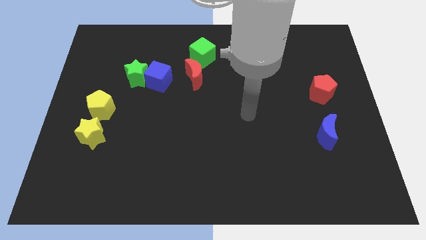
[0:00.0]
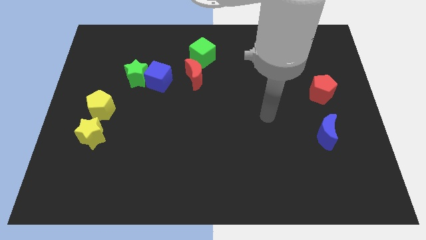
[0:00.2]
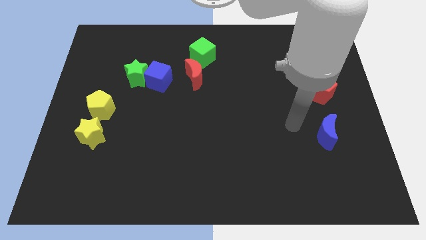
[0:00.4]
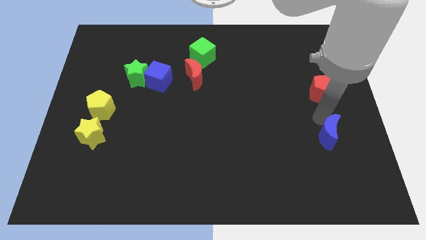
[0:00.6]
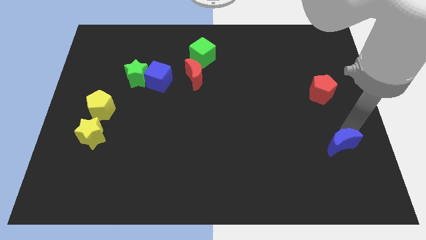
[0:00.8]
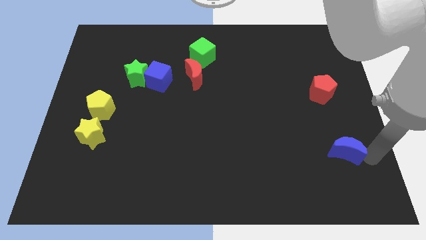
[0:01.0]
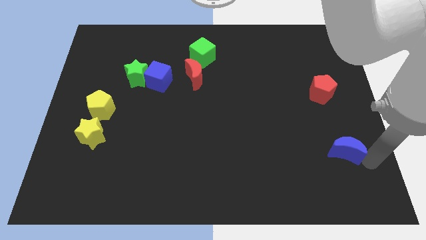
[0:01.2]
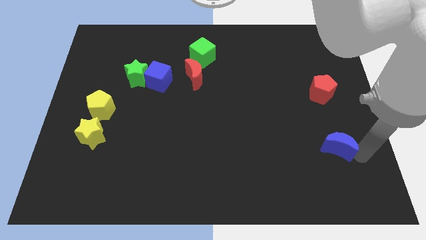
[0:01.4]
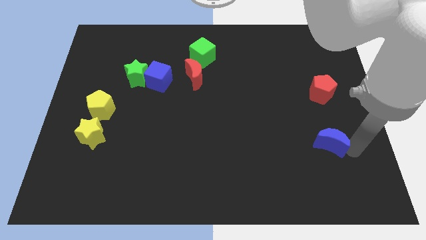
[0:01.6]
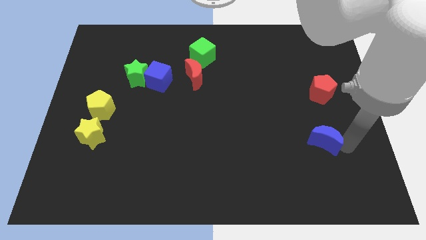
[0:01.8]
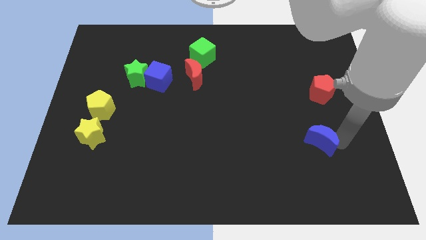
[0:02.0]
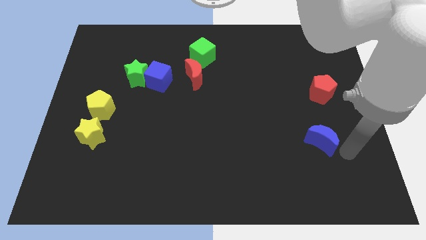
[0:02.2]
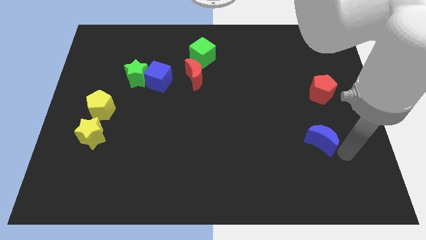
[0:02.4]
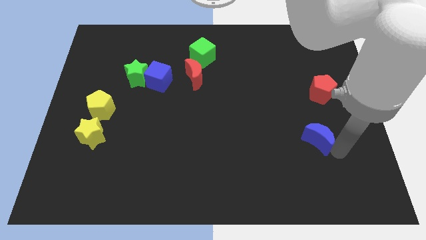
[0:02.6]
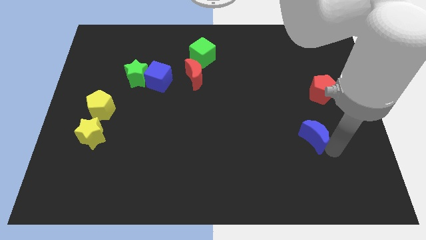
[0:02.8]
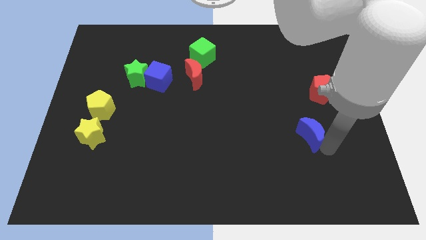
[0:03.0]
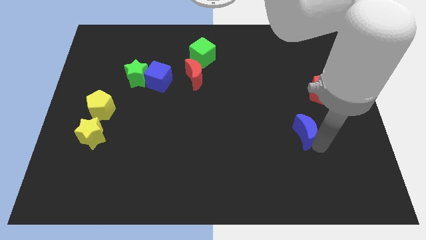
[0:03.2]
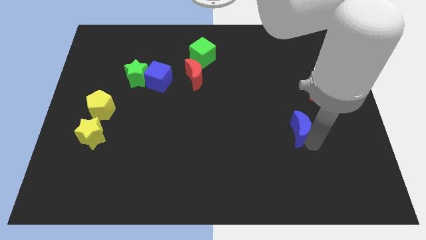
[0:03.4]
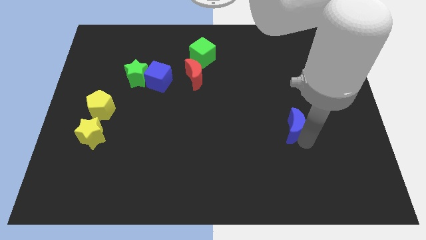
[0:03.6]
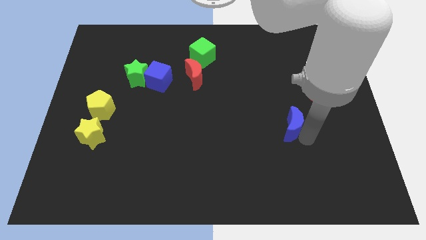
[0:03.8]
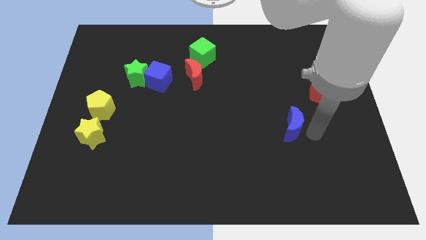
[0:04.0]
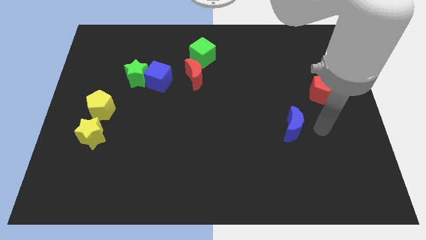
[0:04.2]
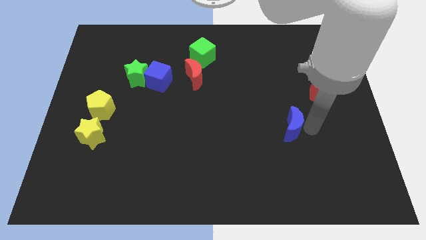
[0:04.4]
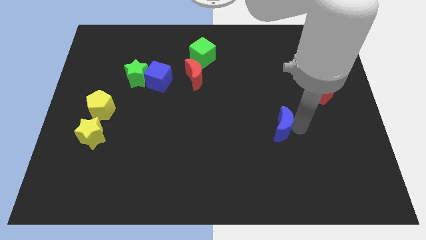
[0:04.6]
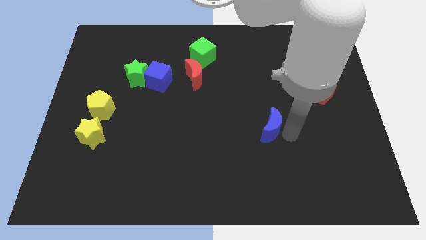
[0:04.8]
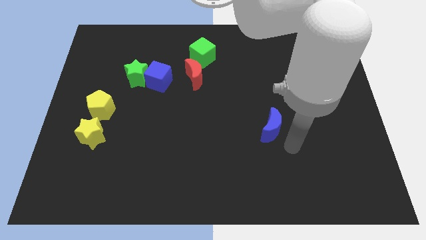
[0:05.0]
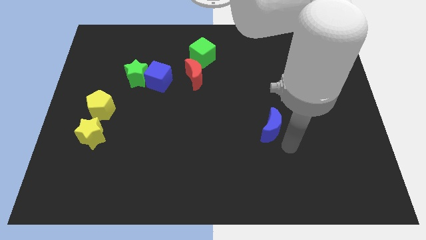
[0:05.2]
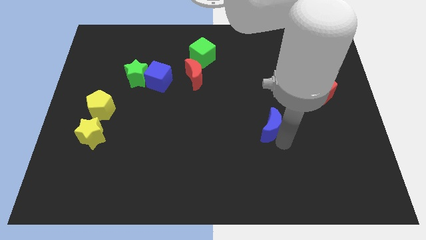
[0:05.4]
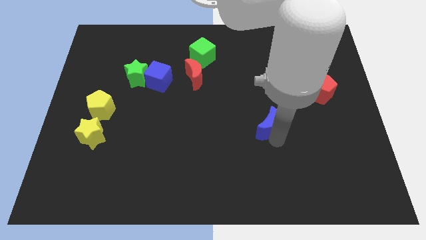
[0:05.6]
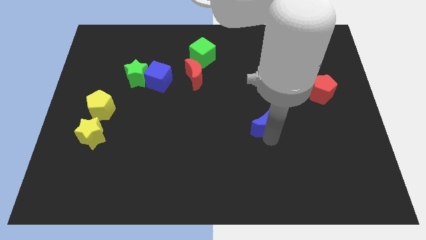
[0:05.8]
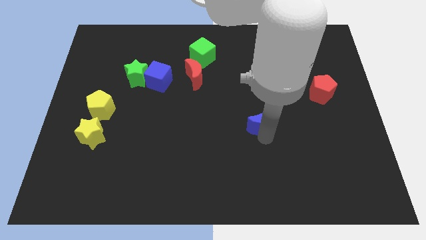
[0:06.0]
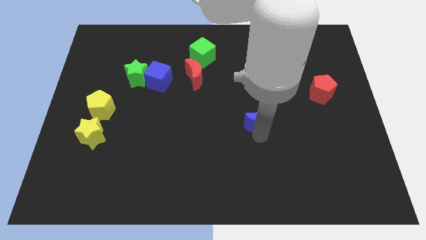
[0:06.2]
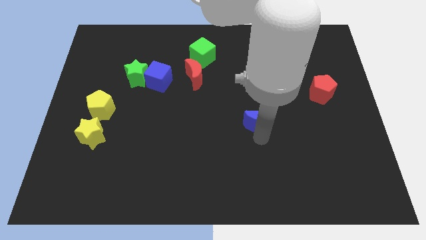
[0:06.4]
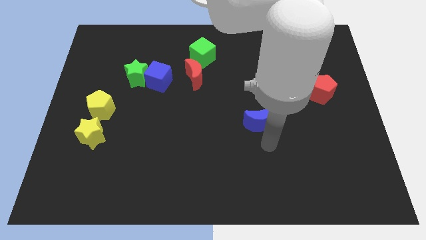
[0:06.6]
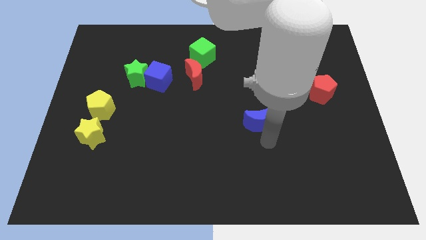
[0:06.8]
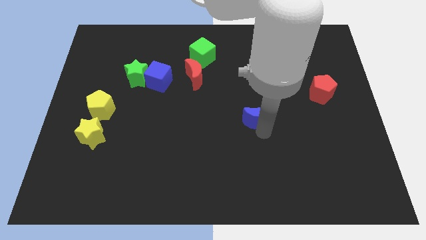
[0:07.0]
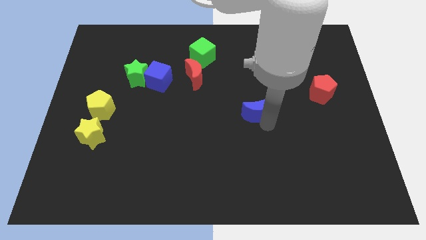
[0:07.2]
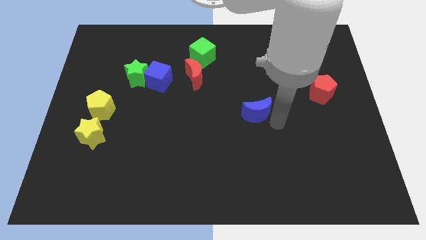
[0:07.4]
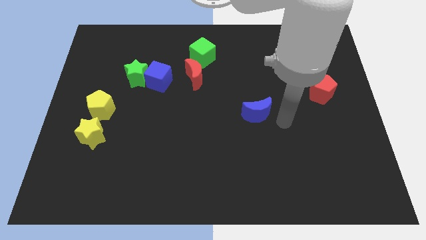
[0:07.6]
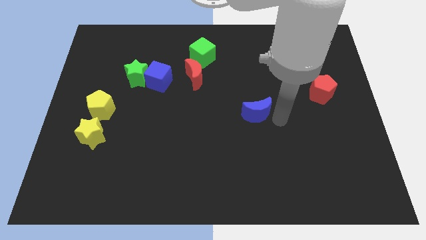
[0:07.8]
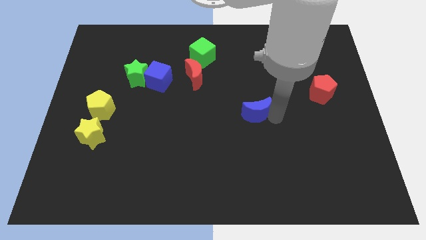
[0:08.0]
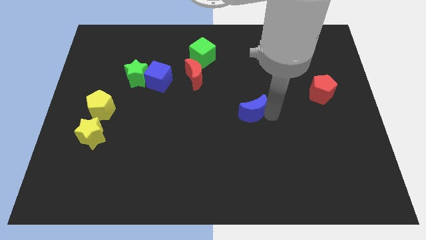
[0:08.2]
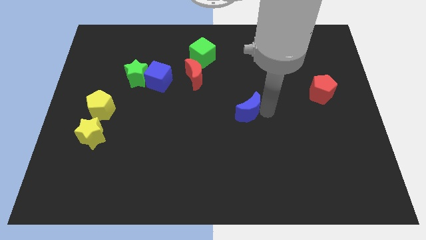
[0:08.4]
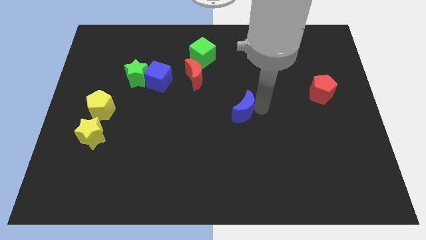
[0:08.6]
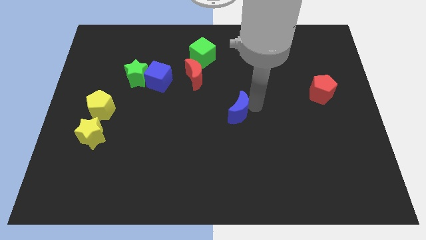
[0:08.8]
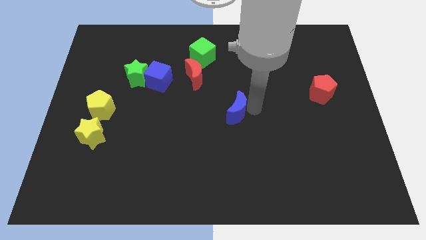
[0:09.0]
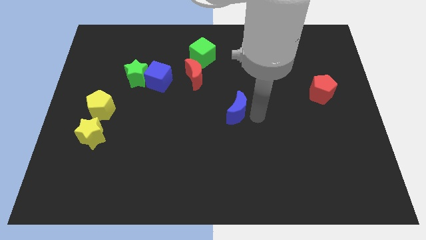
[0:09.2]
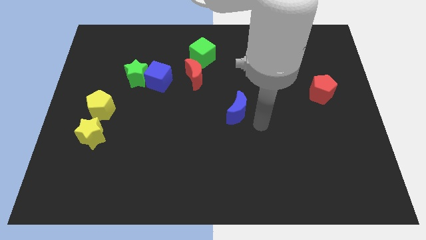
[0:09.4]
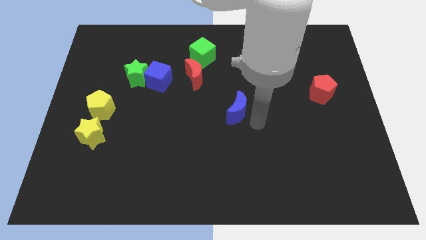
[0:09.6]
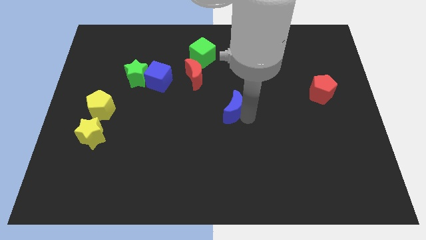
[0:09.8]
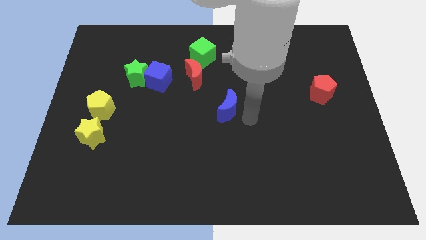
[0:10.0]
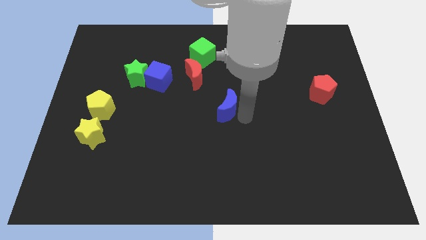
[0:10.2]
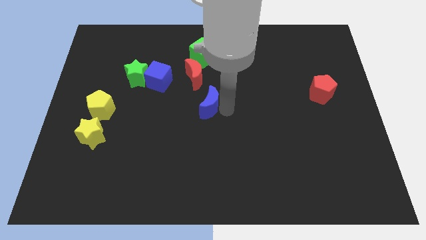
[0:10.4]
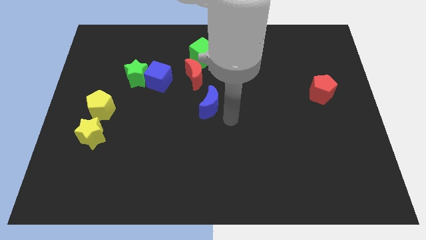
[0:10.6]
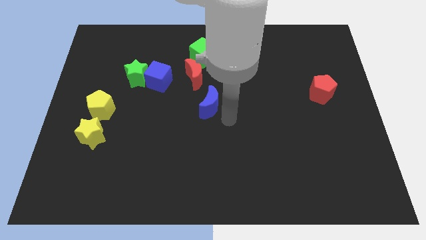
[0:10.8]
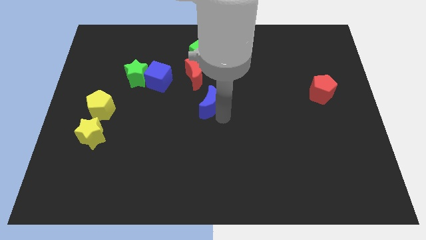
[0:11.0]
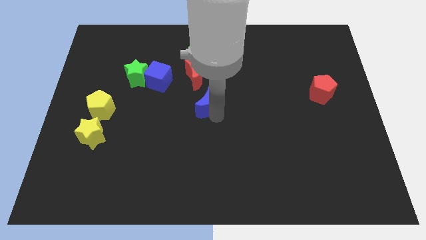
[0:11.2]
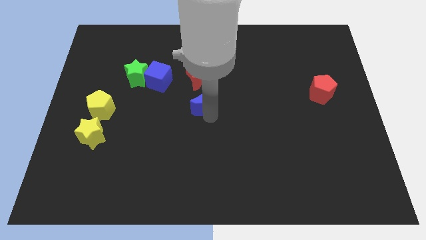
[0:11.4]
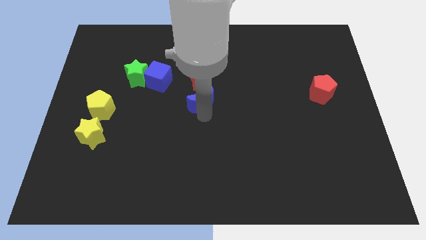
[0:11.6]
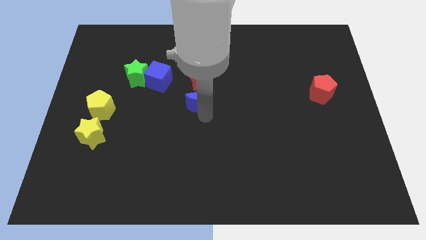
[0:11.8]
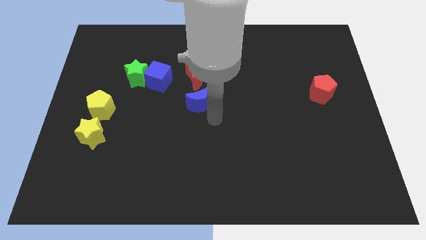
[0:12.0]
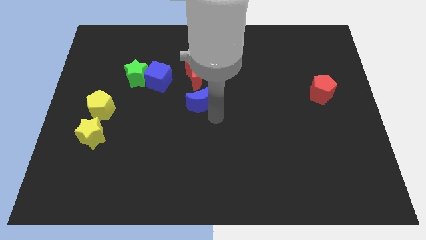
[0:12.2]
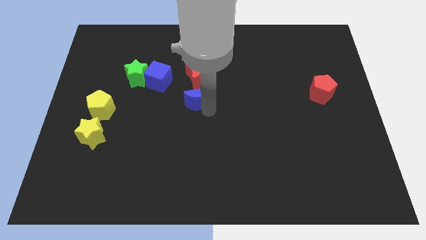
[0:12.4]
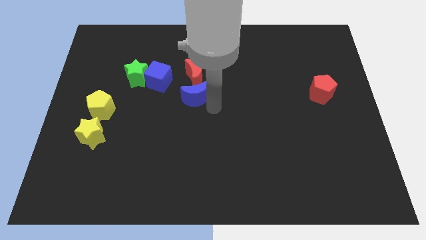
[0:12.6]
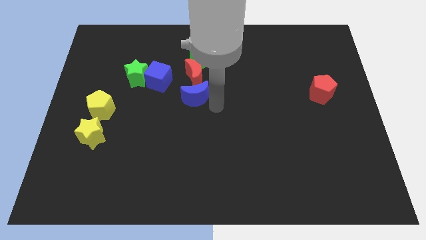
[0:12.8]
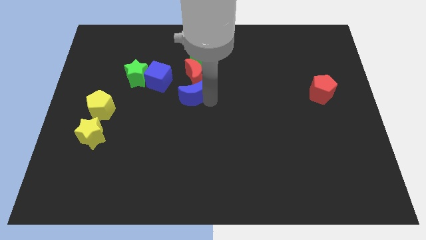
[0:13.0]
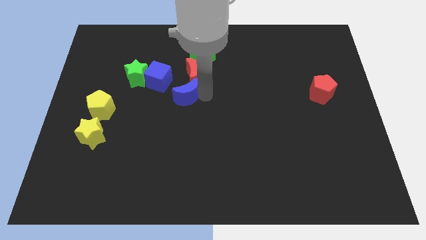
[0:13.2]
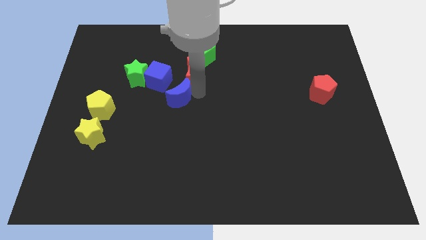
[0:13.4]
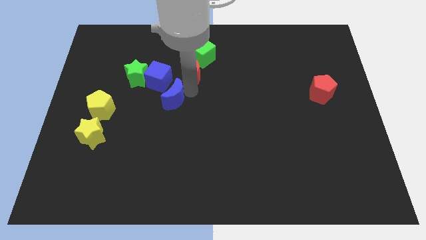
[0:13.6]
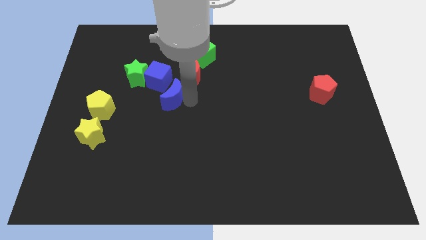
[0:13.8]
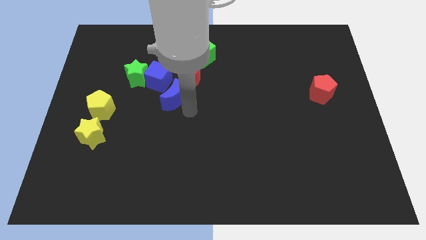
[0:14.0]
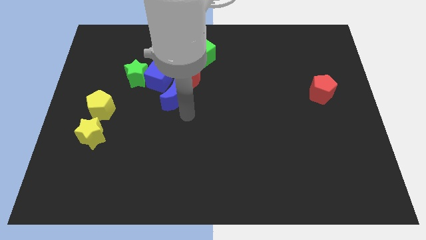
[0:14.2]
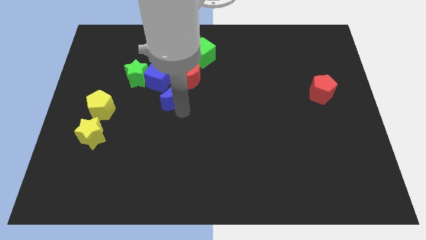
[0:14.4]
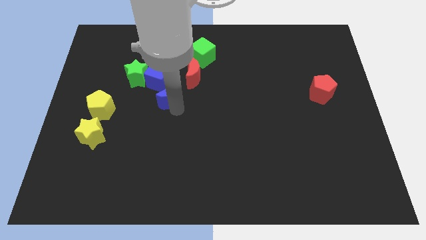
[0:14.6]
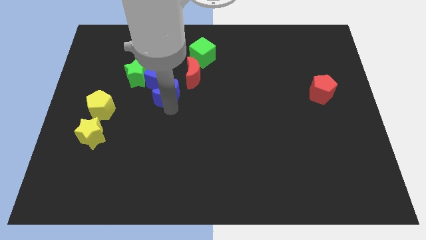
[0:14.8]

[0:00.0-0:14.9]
put the blue moon next to the blue cube

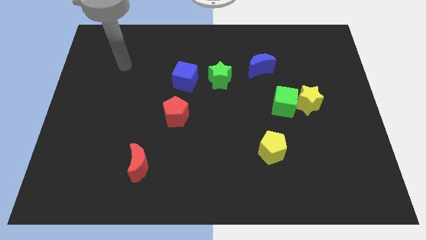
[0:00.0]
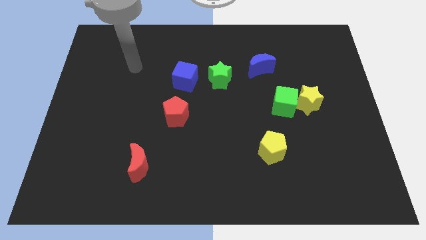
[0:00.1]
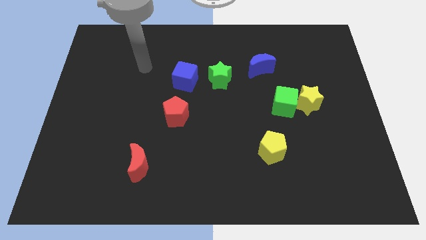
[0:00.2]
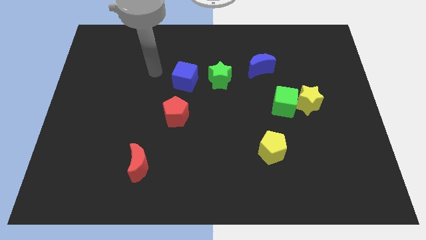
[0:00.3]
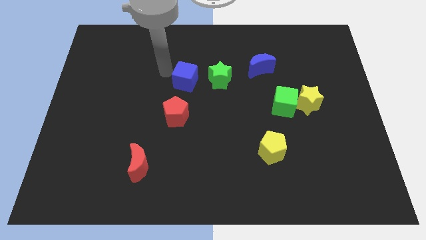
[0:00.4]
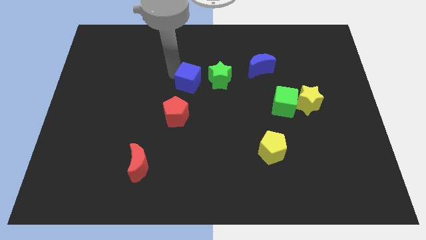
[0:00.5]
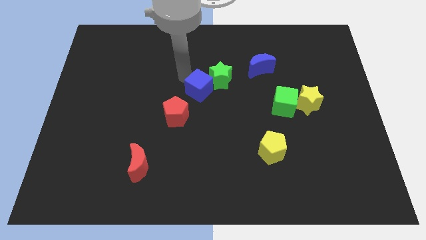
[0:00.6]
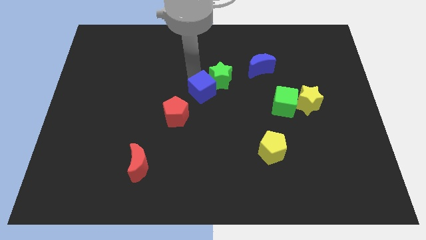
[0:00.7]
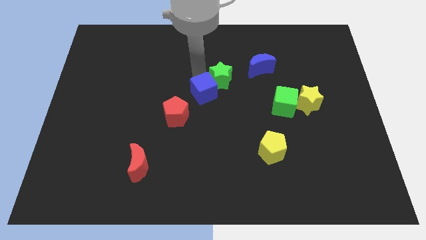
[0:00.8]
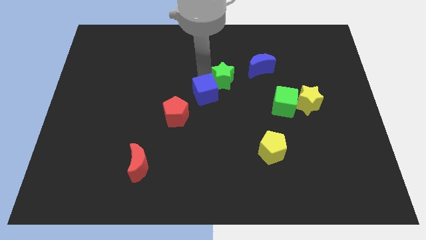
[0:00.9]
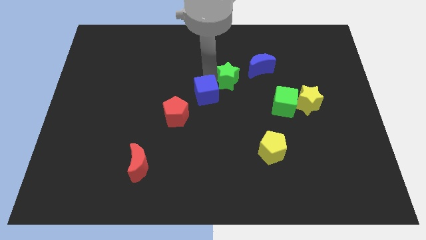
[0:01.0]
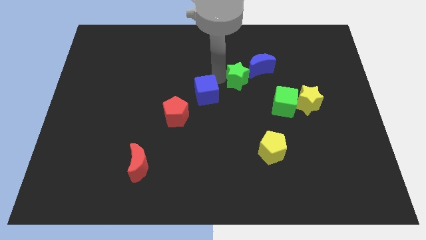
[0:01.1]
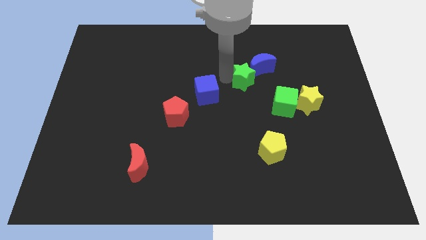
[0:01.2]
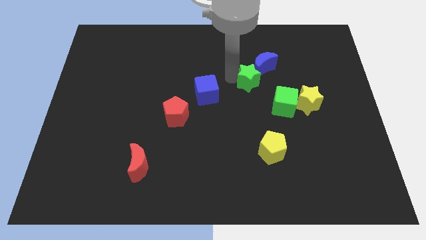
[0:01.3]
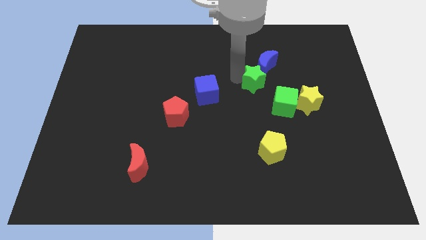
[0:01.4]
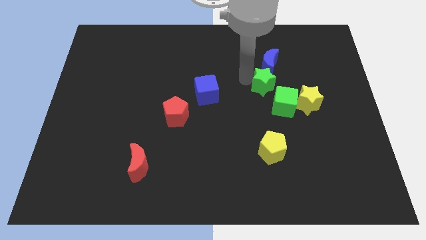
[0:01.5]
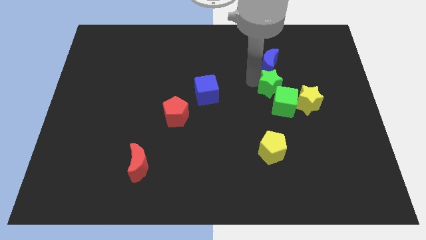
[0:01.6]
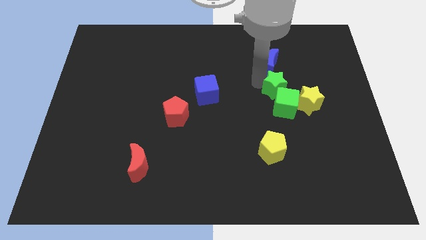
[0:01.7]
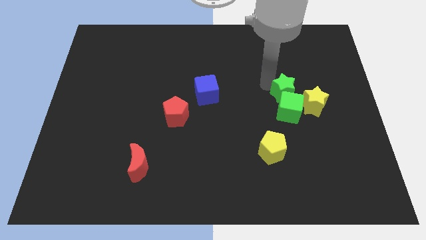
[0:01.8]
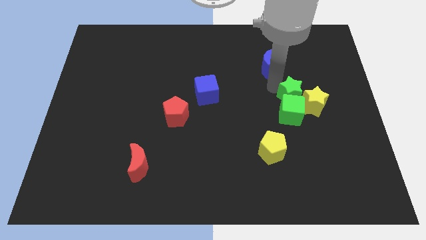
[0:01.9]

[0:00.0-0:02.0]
move the green star to the yellow star
